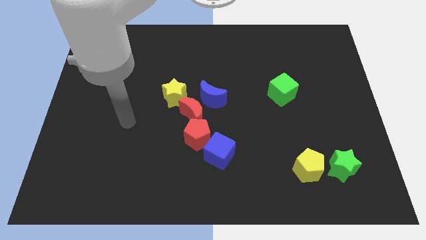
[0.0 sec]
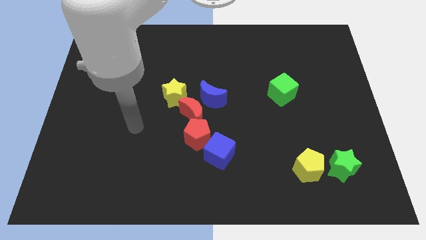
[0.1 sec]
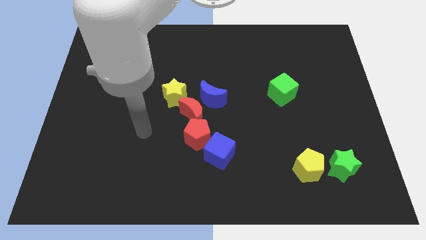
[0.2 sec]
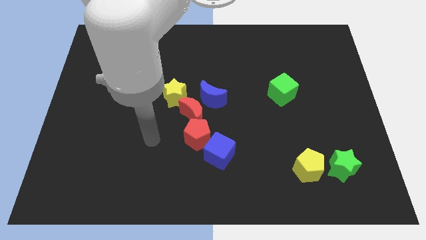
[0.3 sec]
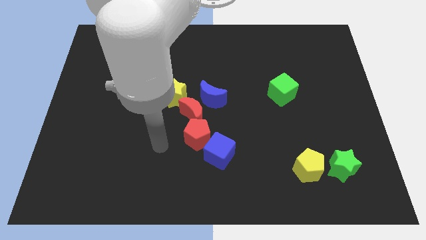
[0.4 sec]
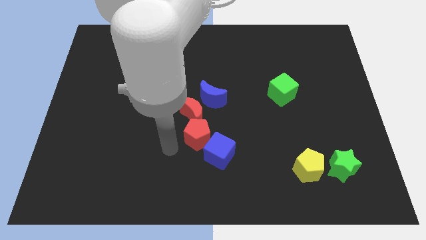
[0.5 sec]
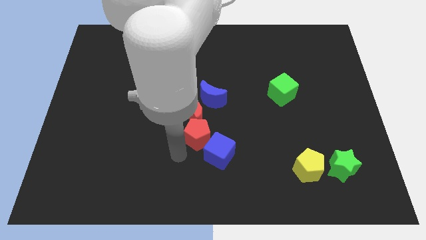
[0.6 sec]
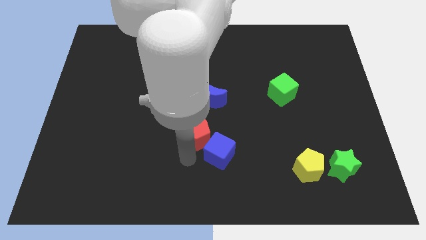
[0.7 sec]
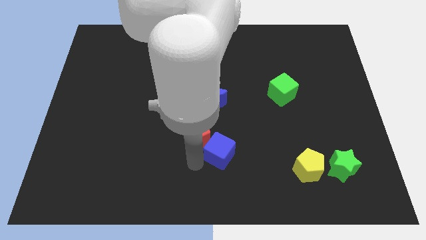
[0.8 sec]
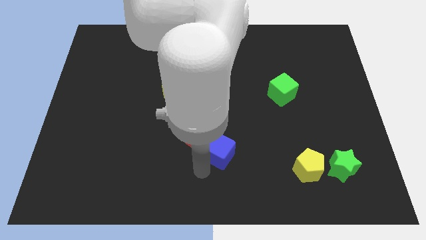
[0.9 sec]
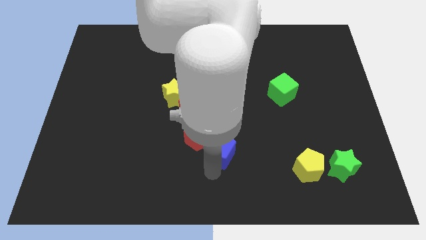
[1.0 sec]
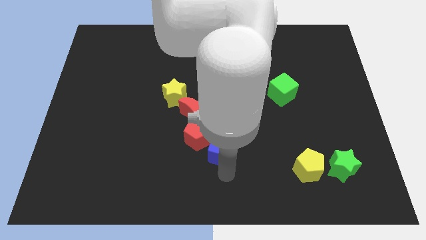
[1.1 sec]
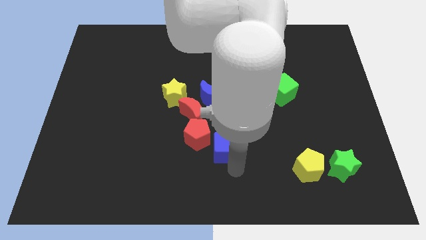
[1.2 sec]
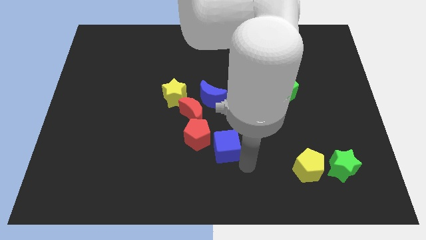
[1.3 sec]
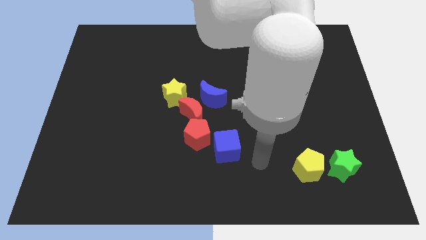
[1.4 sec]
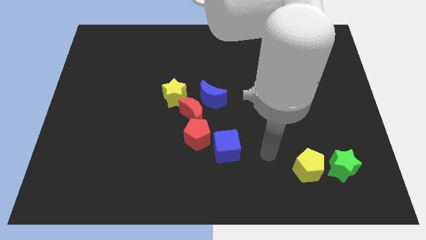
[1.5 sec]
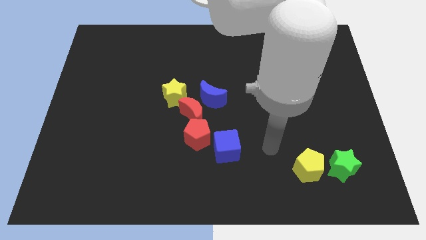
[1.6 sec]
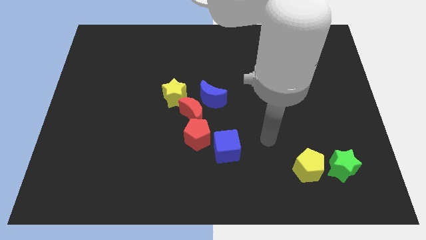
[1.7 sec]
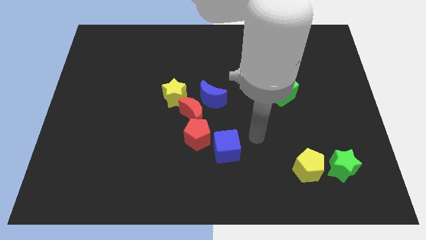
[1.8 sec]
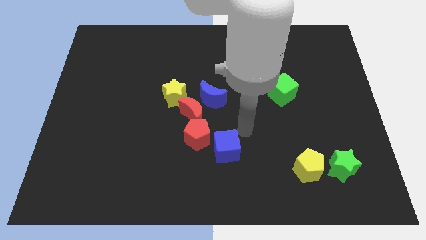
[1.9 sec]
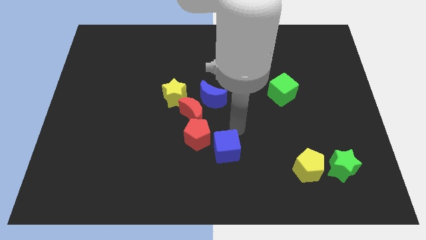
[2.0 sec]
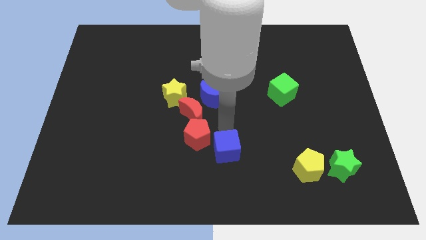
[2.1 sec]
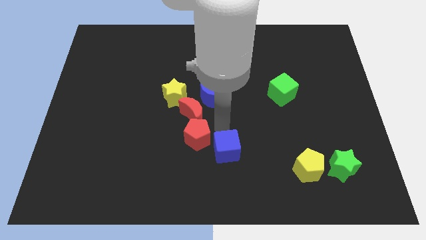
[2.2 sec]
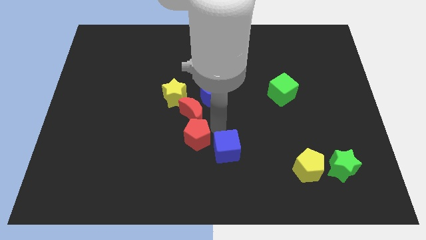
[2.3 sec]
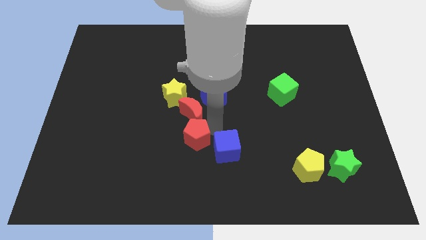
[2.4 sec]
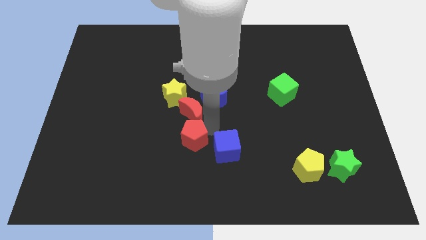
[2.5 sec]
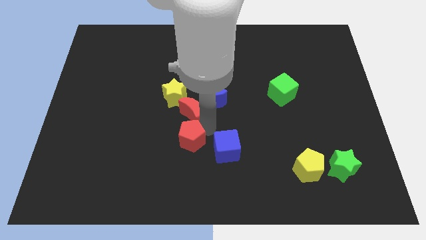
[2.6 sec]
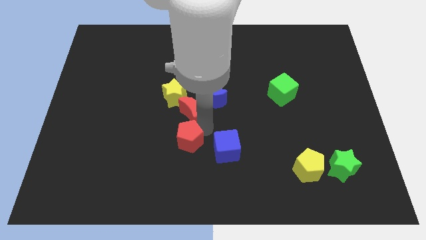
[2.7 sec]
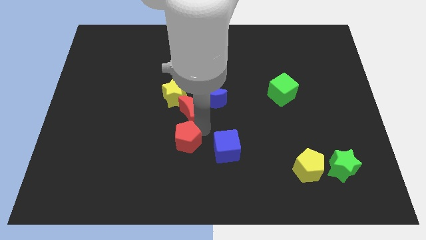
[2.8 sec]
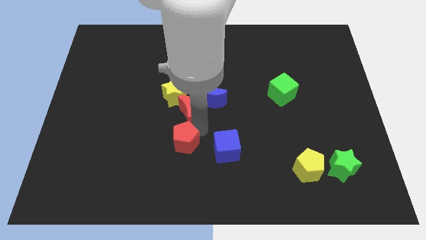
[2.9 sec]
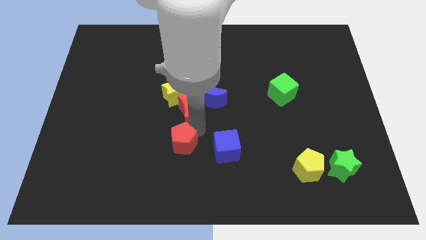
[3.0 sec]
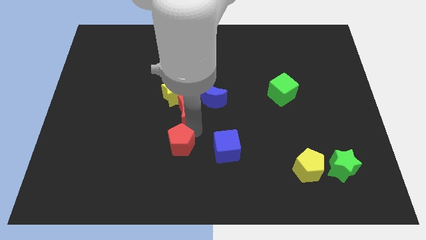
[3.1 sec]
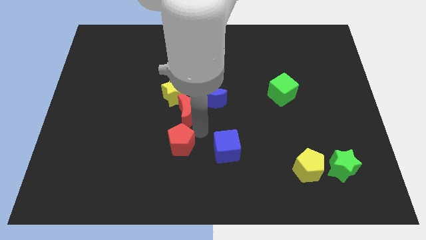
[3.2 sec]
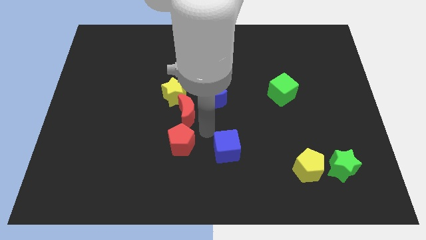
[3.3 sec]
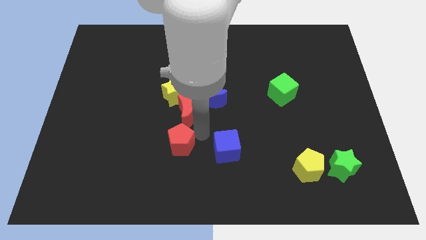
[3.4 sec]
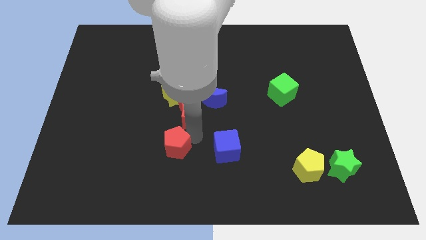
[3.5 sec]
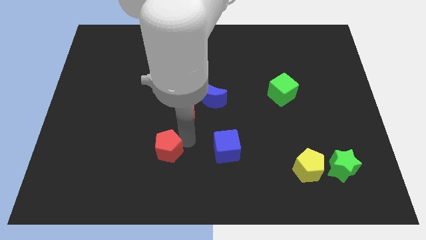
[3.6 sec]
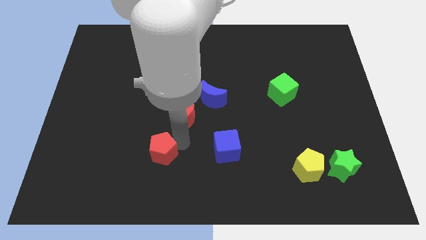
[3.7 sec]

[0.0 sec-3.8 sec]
pull the red pentagon apart from the red moon and blue cube

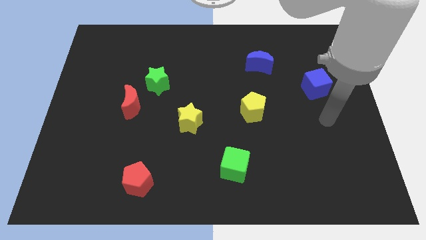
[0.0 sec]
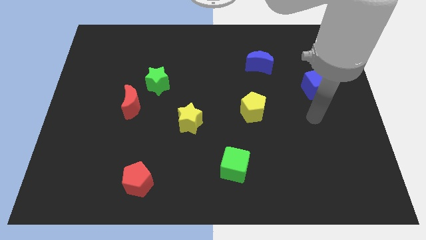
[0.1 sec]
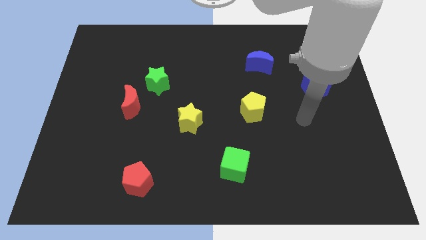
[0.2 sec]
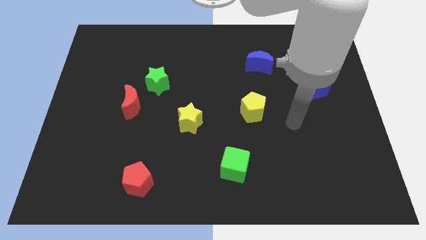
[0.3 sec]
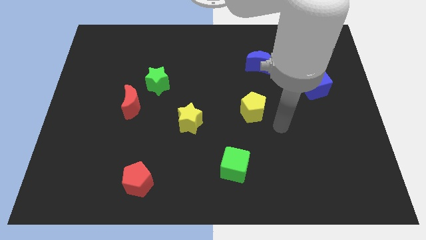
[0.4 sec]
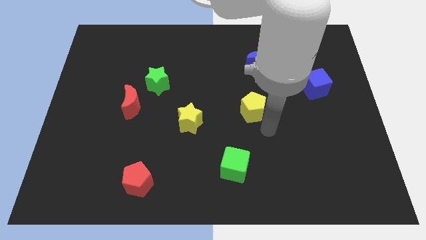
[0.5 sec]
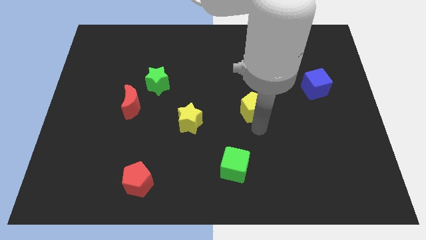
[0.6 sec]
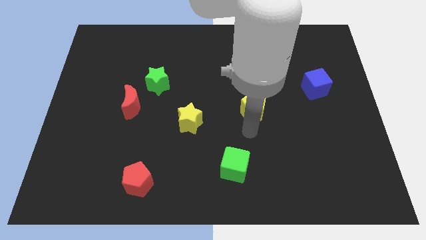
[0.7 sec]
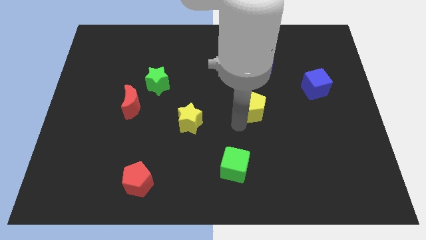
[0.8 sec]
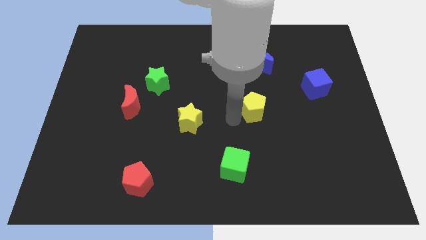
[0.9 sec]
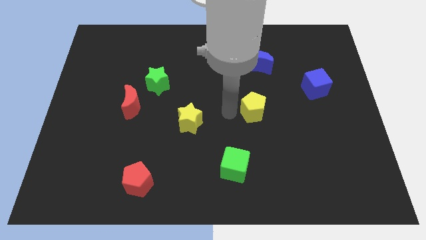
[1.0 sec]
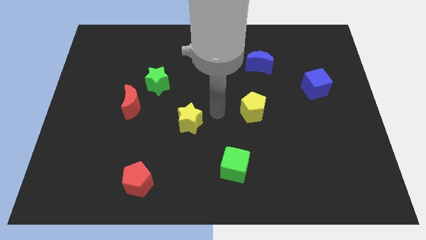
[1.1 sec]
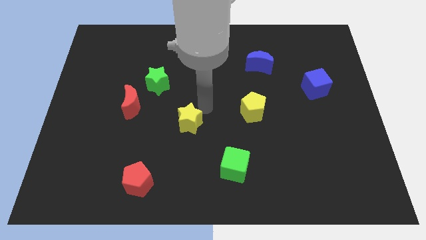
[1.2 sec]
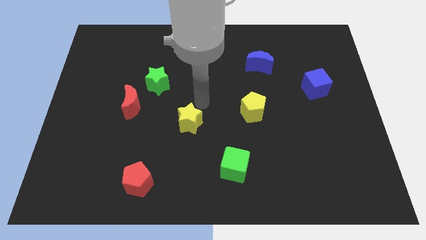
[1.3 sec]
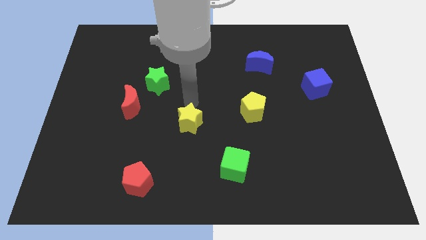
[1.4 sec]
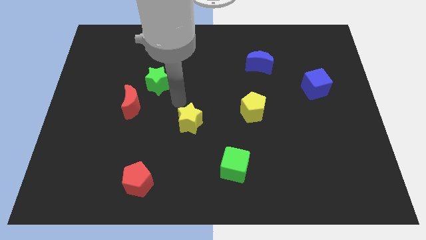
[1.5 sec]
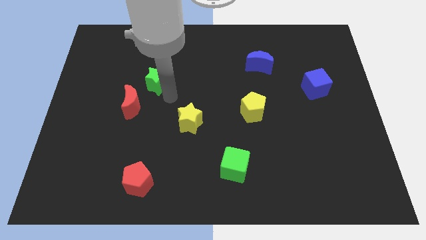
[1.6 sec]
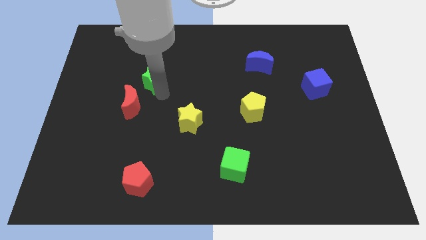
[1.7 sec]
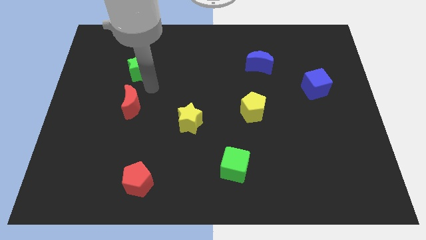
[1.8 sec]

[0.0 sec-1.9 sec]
move the red moon away from the green star

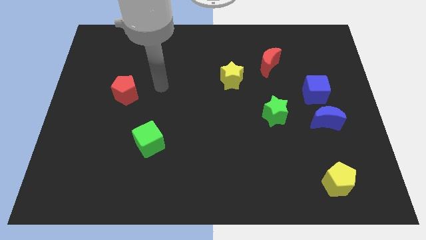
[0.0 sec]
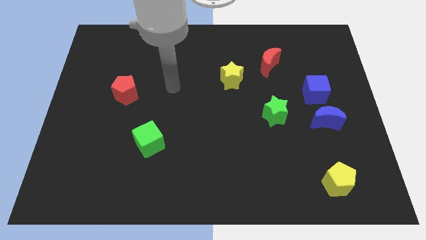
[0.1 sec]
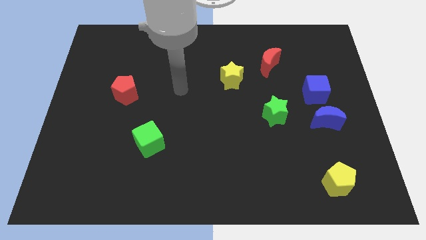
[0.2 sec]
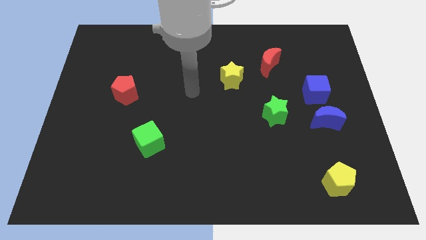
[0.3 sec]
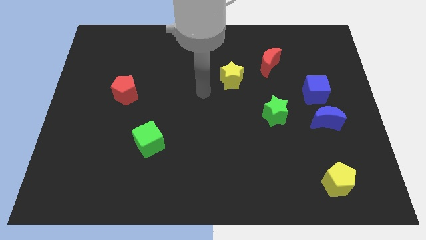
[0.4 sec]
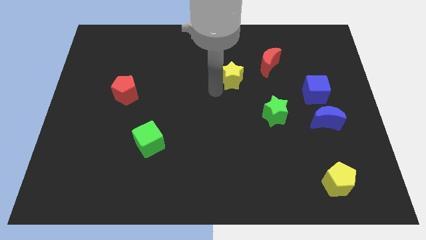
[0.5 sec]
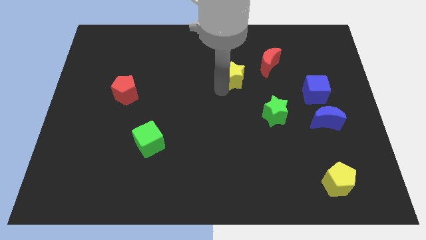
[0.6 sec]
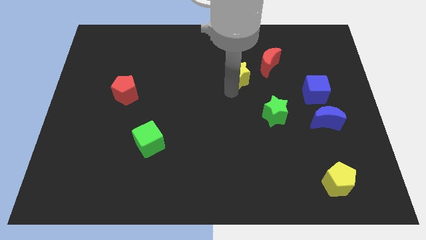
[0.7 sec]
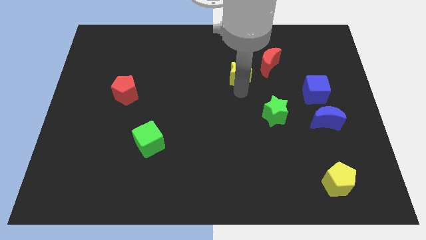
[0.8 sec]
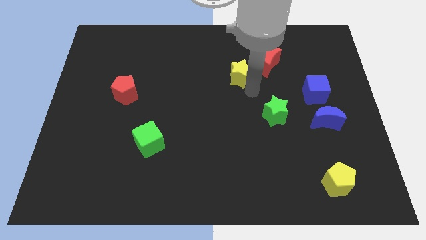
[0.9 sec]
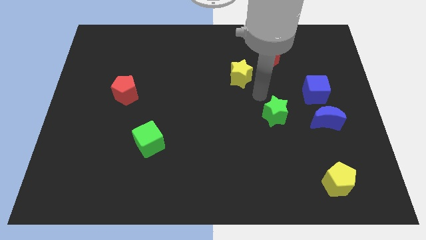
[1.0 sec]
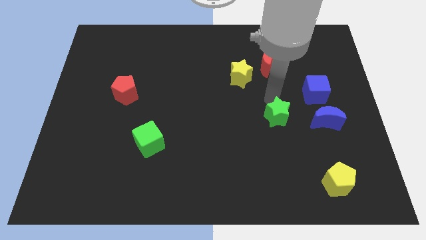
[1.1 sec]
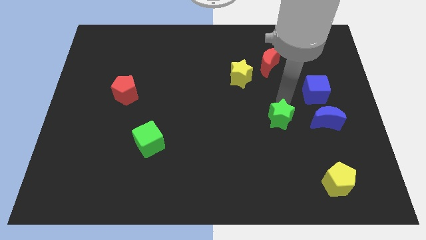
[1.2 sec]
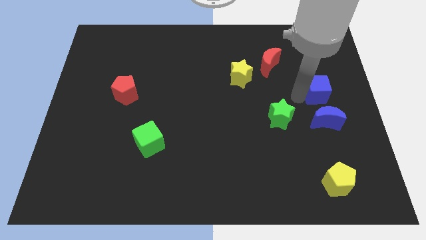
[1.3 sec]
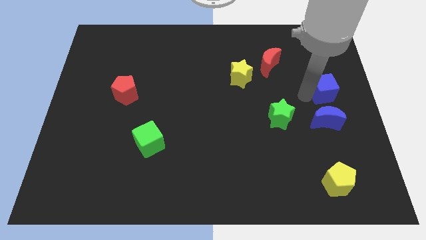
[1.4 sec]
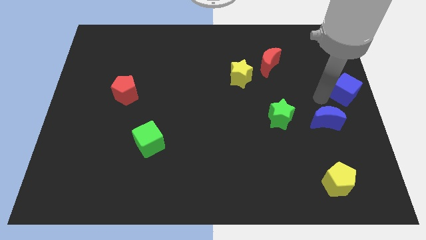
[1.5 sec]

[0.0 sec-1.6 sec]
move the blue moon away from the blue cube

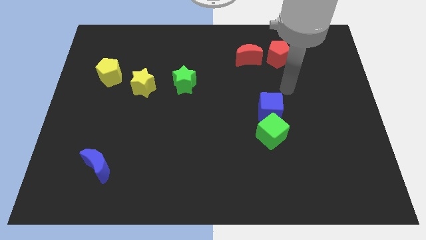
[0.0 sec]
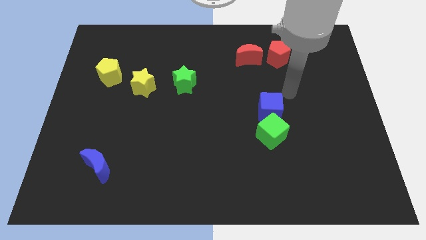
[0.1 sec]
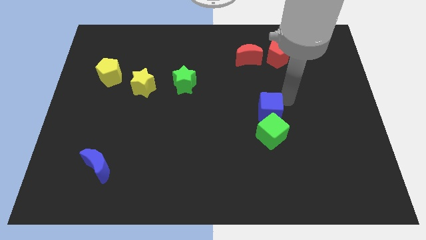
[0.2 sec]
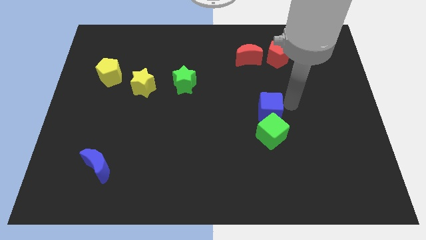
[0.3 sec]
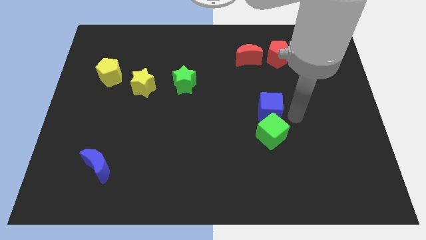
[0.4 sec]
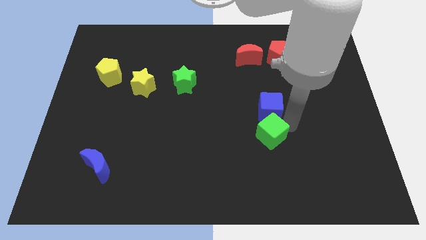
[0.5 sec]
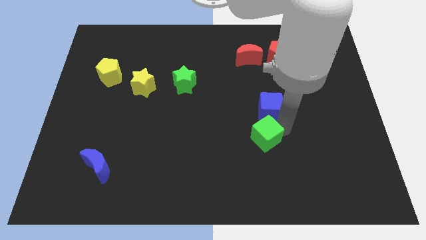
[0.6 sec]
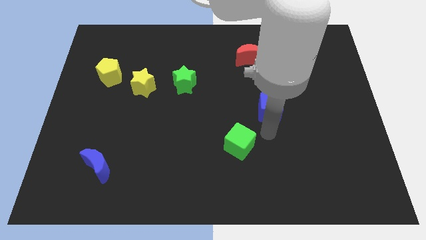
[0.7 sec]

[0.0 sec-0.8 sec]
separate the blue cube from the green cube

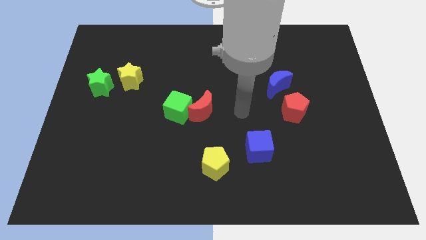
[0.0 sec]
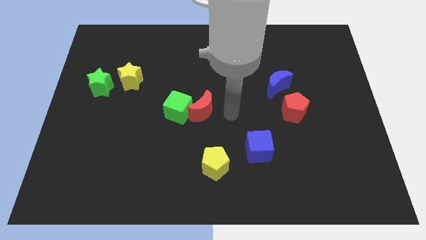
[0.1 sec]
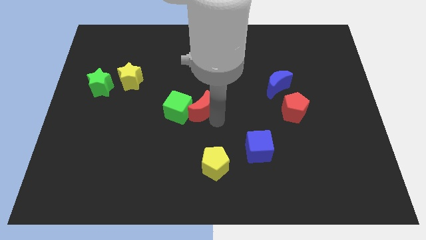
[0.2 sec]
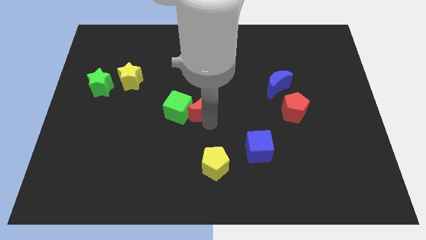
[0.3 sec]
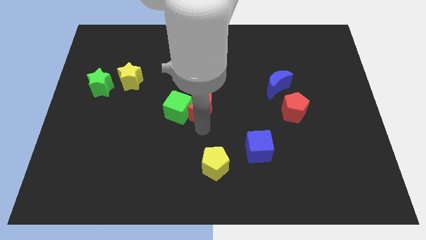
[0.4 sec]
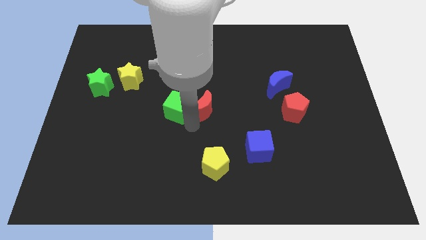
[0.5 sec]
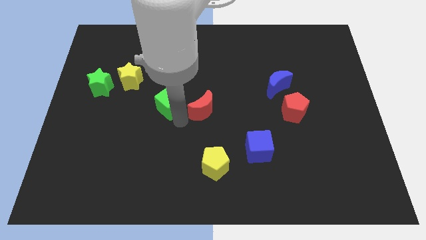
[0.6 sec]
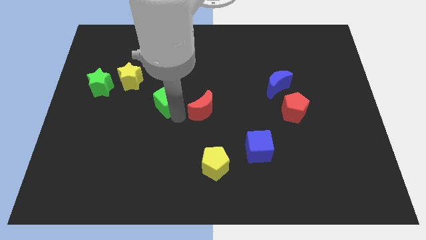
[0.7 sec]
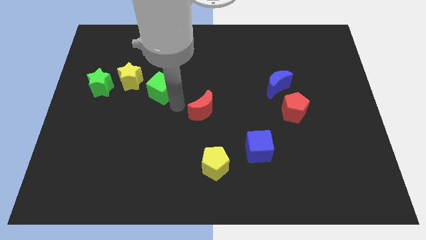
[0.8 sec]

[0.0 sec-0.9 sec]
pull the red moon apart from the green cube

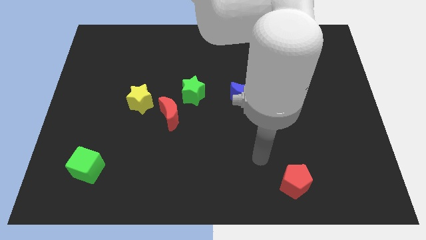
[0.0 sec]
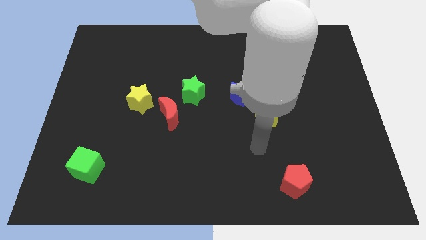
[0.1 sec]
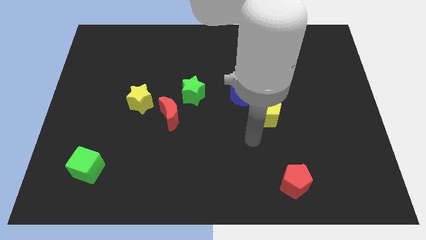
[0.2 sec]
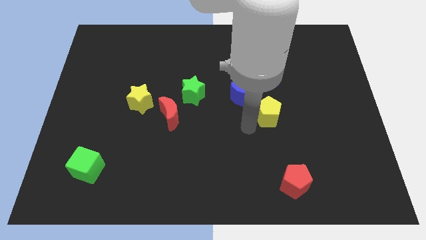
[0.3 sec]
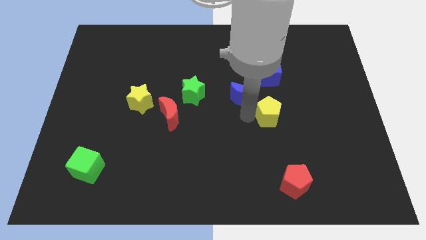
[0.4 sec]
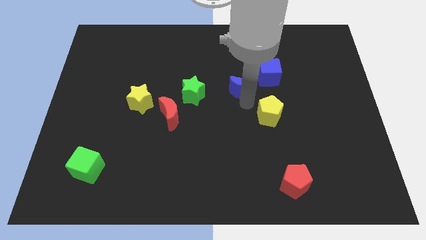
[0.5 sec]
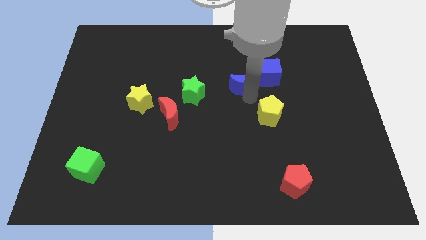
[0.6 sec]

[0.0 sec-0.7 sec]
move the yellow pentagon away from the blue moon
